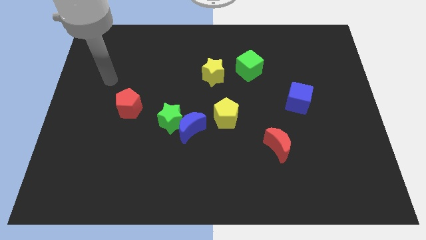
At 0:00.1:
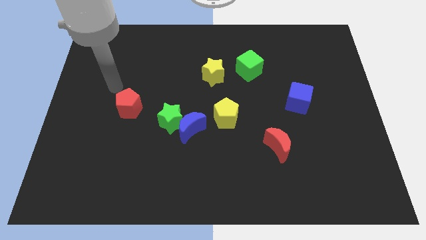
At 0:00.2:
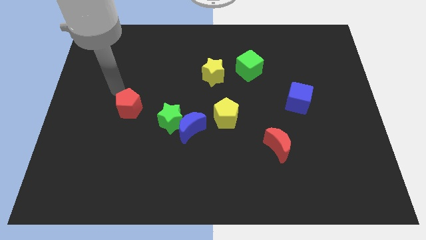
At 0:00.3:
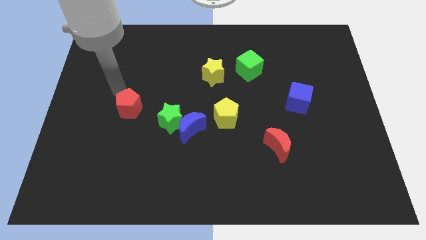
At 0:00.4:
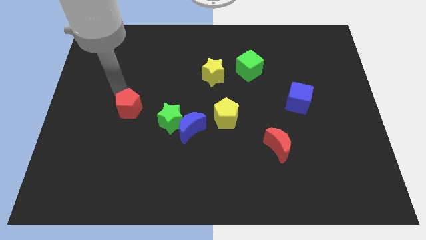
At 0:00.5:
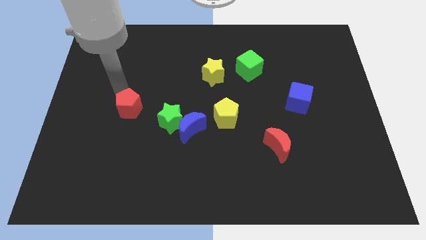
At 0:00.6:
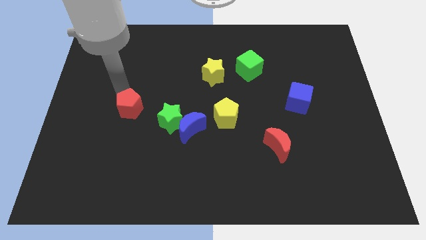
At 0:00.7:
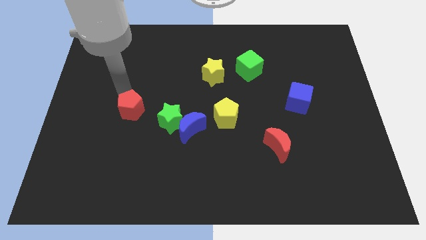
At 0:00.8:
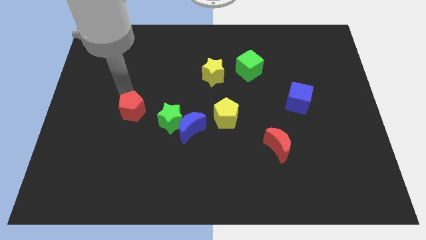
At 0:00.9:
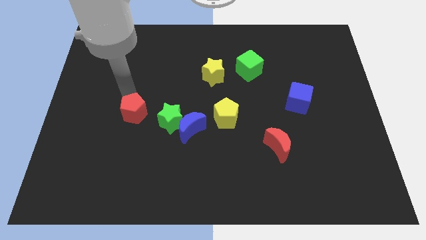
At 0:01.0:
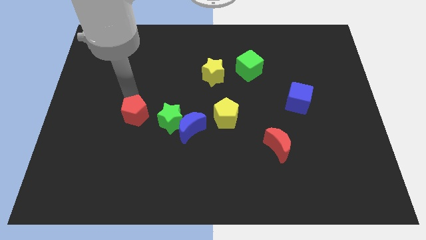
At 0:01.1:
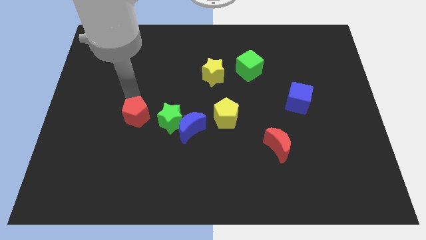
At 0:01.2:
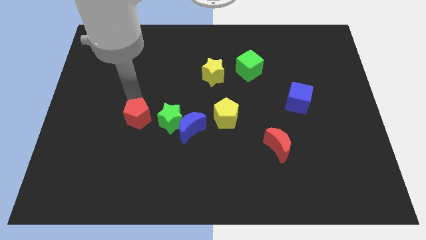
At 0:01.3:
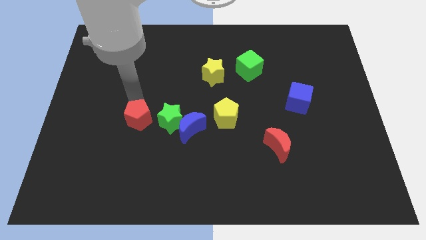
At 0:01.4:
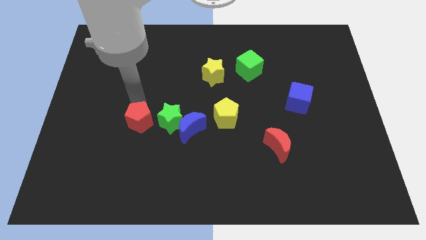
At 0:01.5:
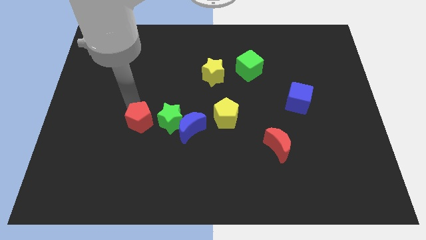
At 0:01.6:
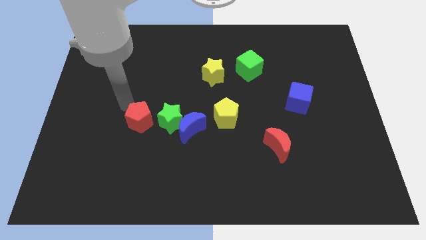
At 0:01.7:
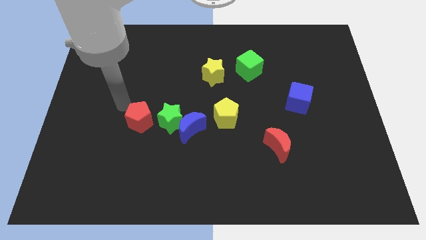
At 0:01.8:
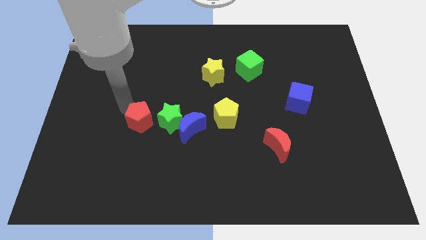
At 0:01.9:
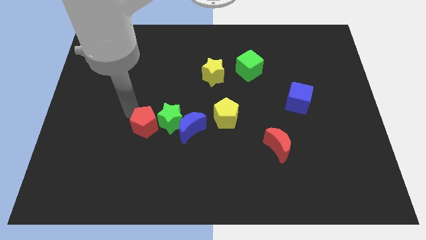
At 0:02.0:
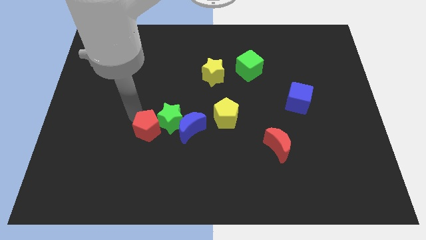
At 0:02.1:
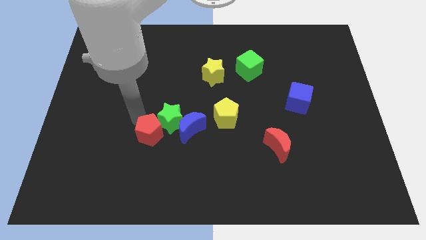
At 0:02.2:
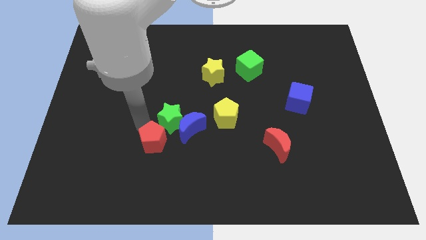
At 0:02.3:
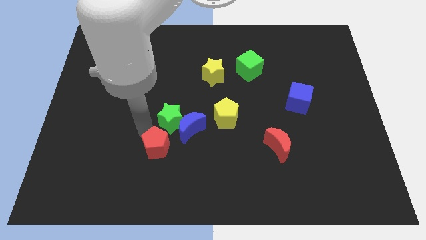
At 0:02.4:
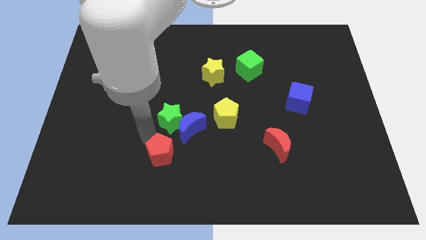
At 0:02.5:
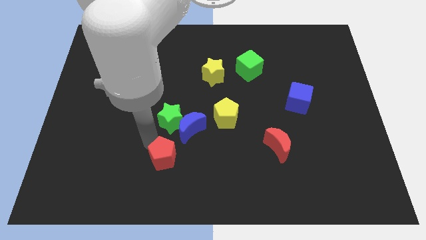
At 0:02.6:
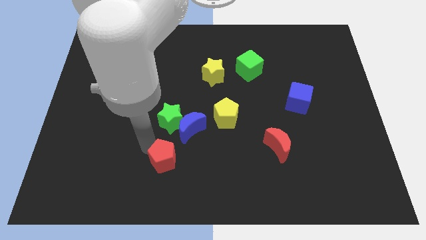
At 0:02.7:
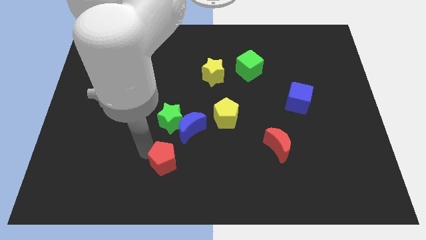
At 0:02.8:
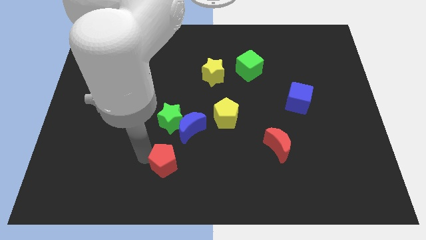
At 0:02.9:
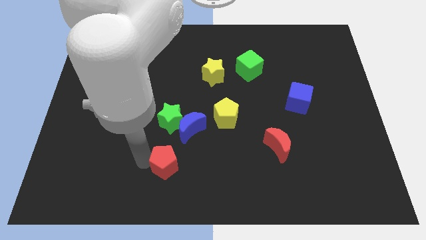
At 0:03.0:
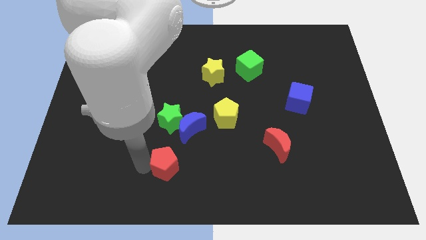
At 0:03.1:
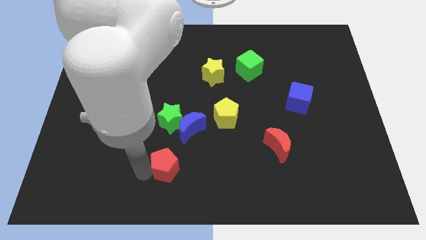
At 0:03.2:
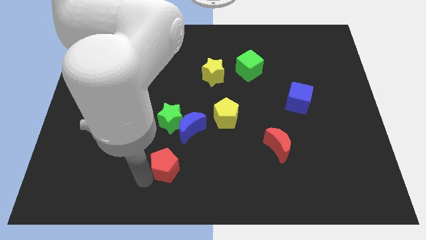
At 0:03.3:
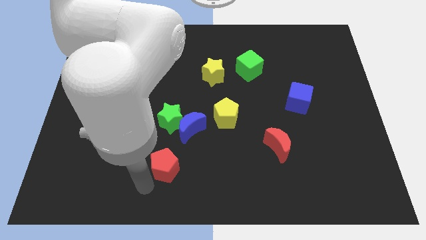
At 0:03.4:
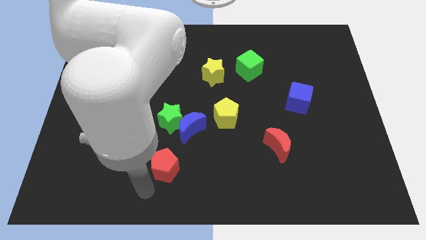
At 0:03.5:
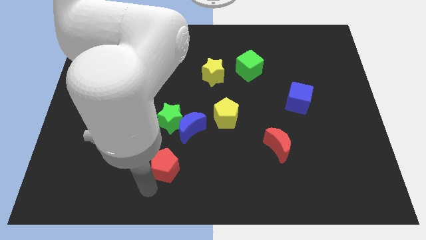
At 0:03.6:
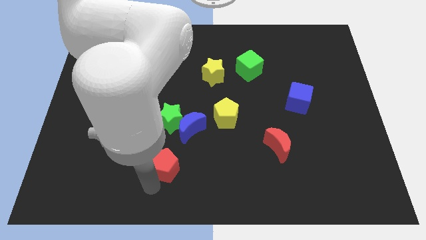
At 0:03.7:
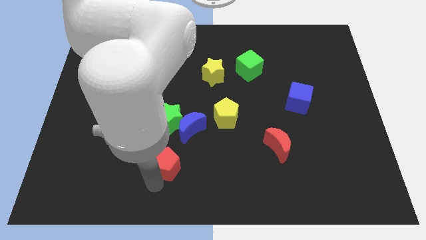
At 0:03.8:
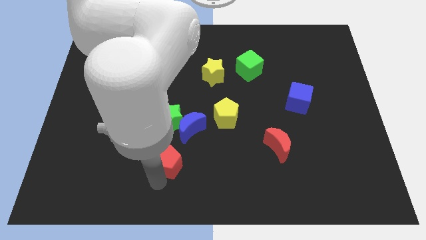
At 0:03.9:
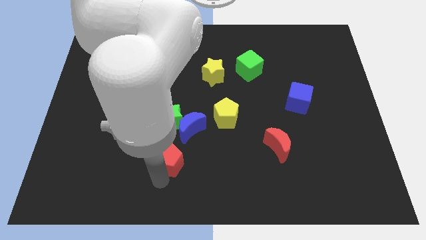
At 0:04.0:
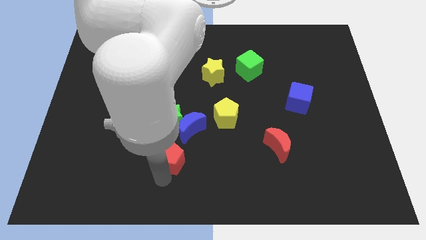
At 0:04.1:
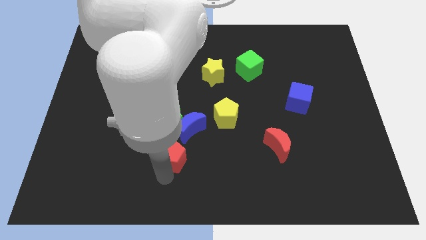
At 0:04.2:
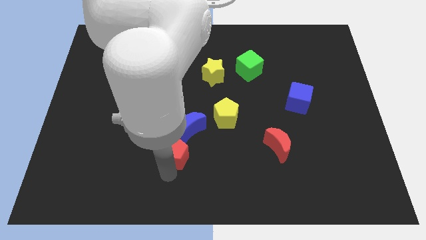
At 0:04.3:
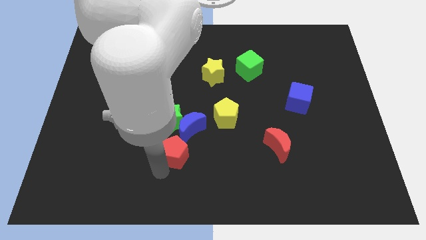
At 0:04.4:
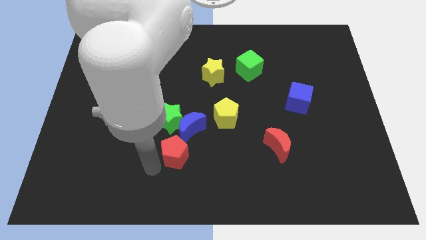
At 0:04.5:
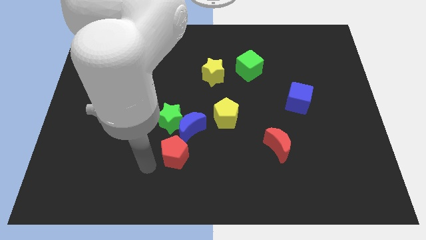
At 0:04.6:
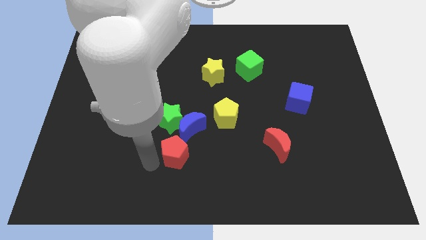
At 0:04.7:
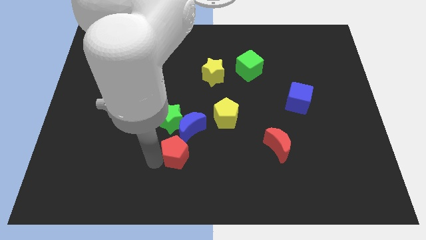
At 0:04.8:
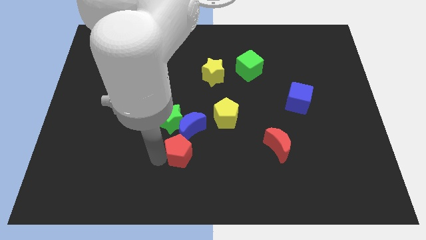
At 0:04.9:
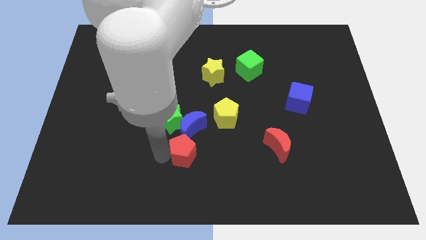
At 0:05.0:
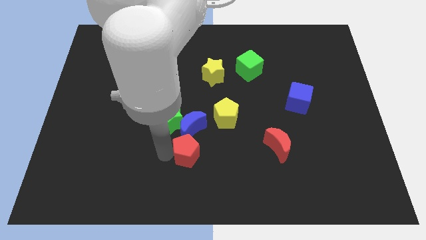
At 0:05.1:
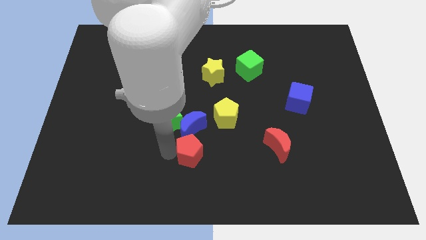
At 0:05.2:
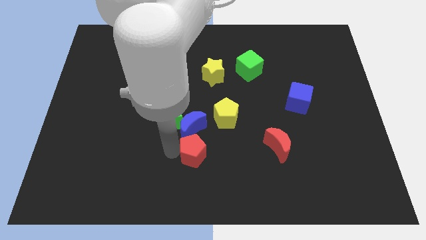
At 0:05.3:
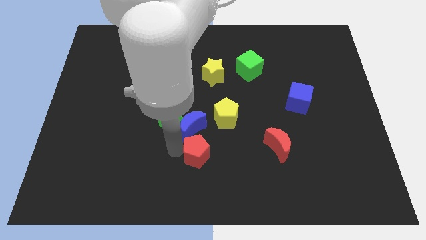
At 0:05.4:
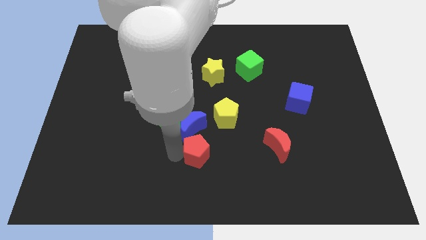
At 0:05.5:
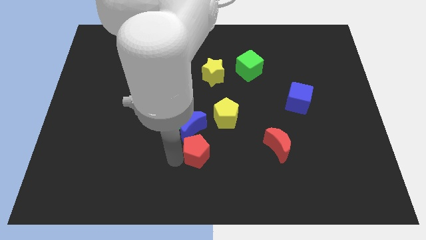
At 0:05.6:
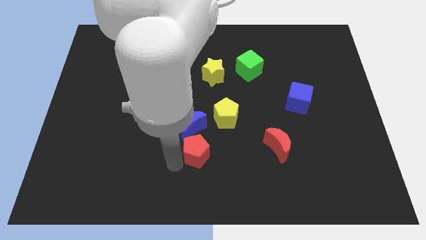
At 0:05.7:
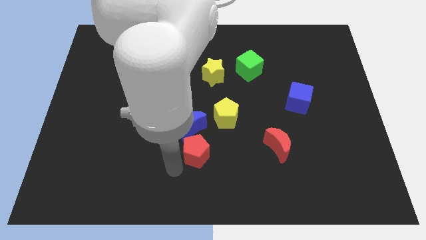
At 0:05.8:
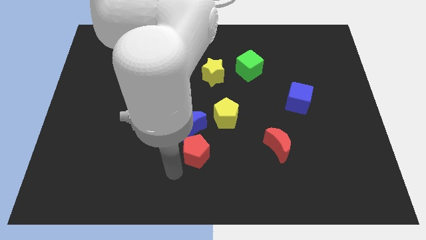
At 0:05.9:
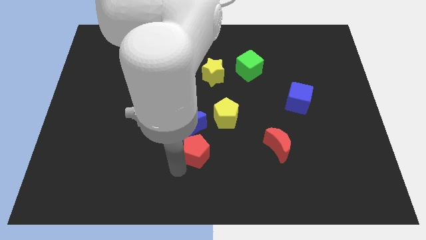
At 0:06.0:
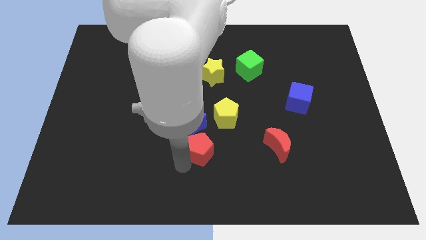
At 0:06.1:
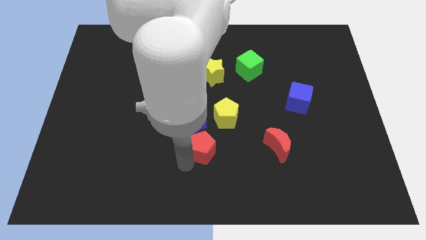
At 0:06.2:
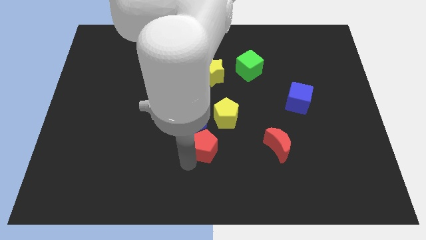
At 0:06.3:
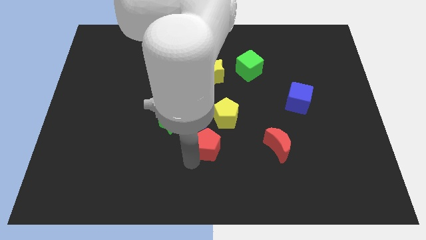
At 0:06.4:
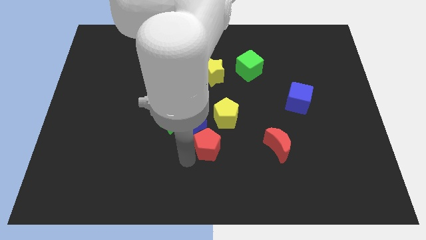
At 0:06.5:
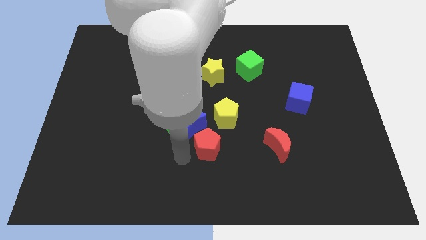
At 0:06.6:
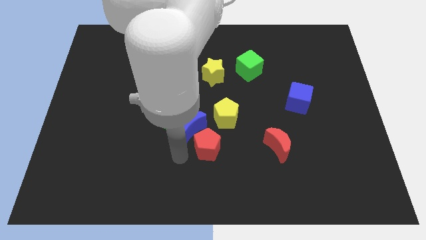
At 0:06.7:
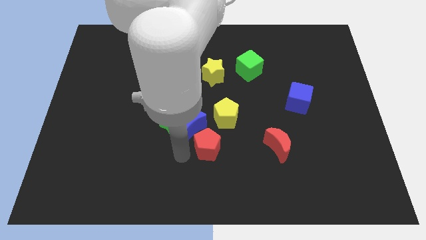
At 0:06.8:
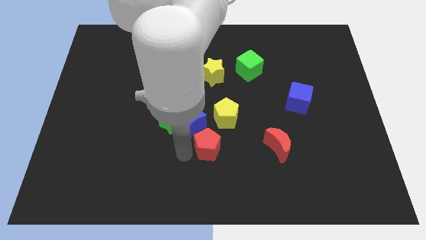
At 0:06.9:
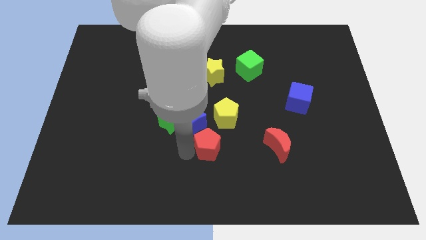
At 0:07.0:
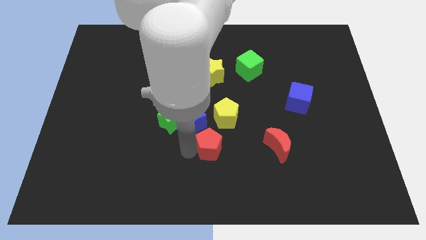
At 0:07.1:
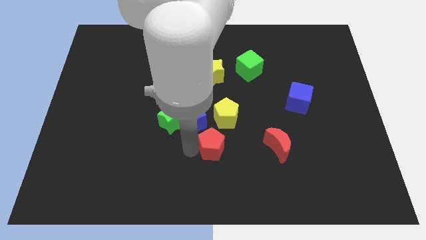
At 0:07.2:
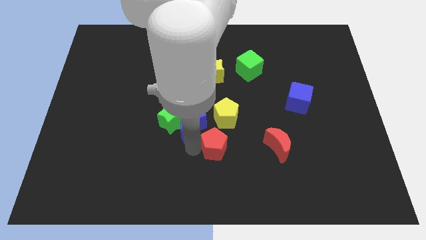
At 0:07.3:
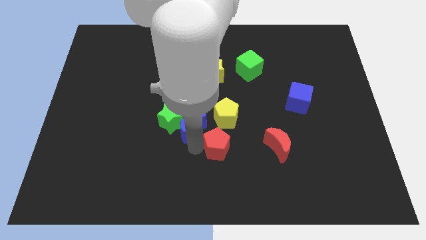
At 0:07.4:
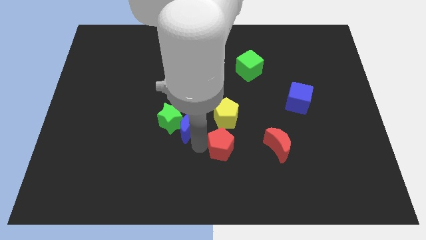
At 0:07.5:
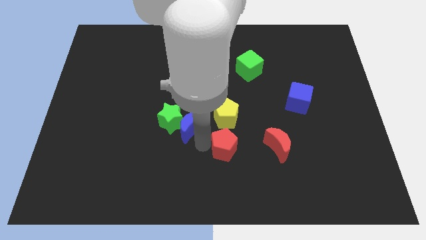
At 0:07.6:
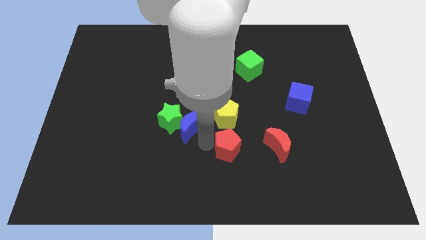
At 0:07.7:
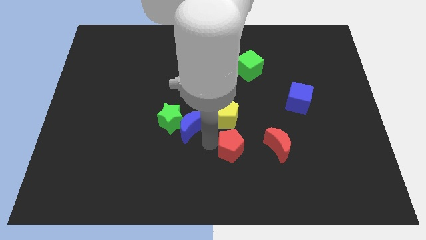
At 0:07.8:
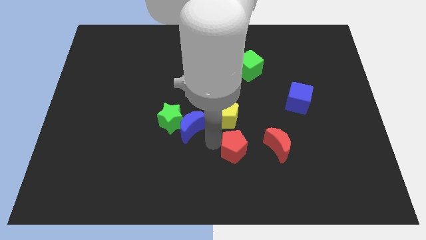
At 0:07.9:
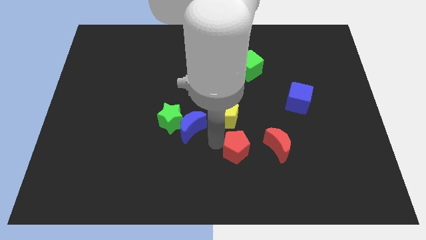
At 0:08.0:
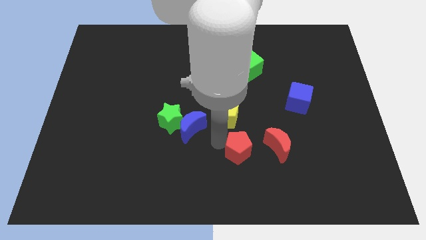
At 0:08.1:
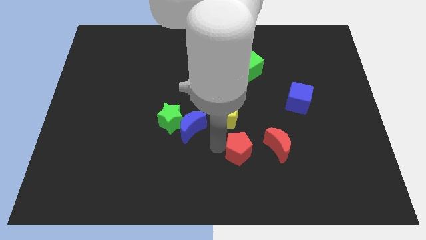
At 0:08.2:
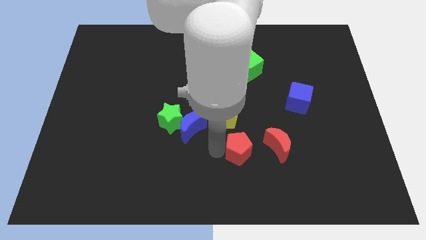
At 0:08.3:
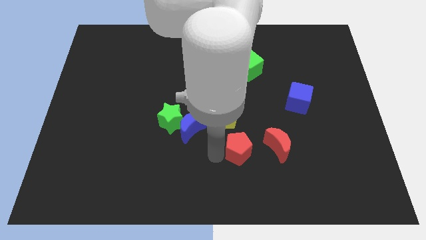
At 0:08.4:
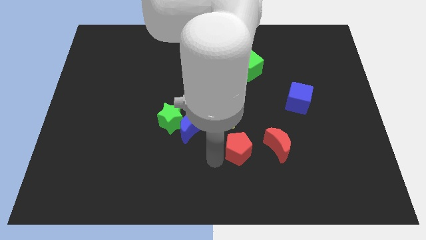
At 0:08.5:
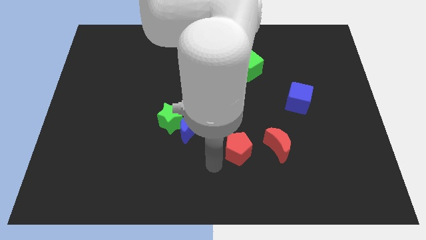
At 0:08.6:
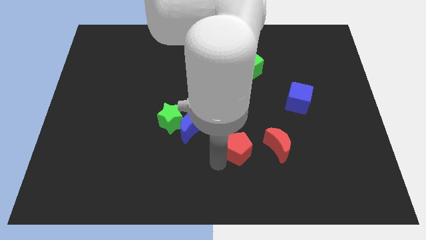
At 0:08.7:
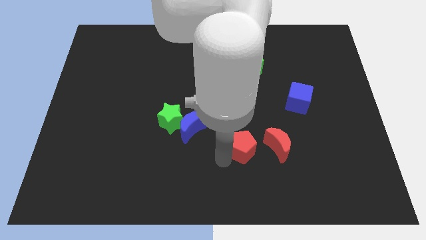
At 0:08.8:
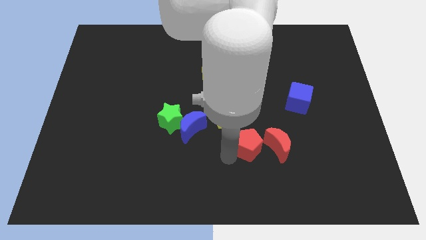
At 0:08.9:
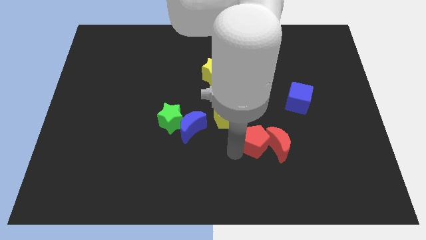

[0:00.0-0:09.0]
move the red pentagon to the red moon
